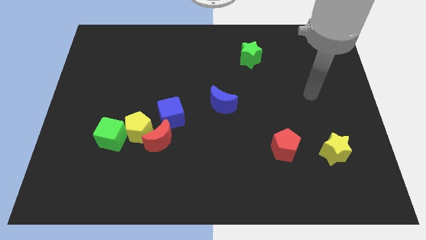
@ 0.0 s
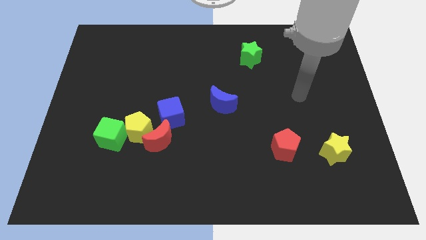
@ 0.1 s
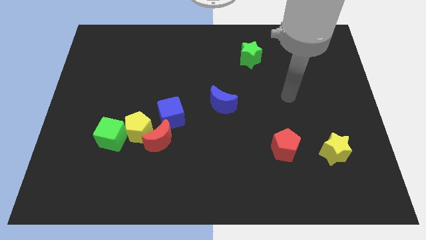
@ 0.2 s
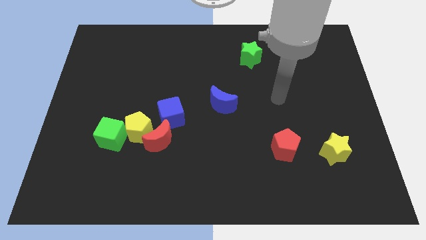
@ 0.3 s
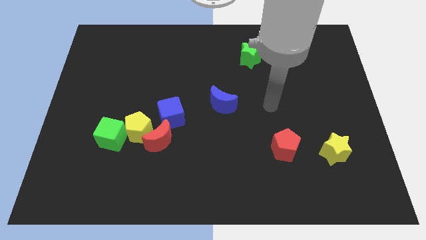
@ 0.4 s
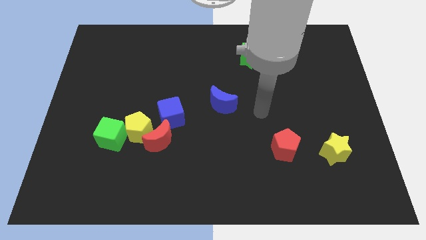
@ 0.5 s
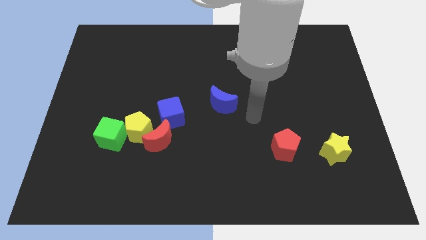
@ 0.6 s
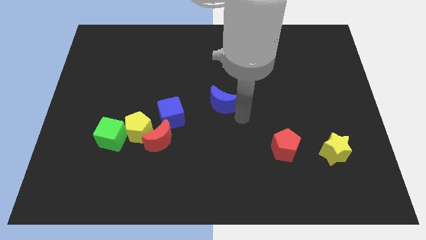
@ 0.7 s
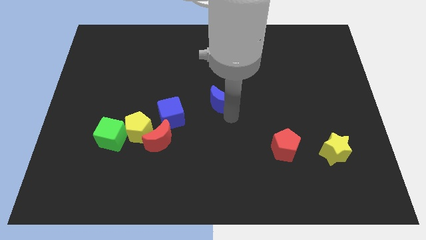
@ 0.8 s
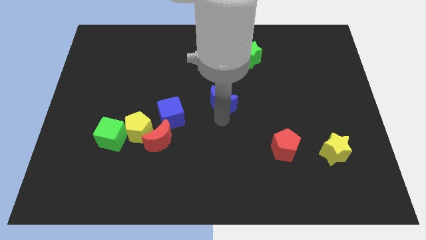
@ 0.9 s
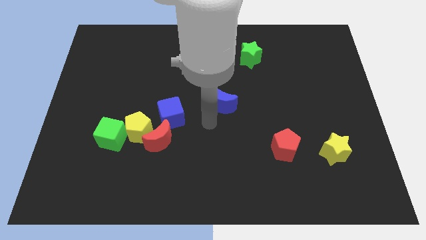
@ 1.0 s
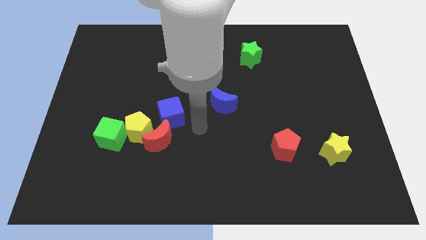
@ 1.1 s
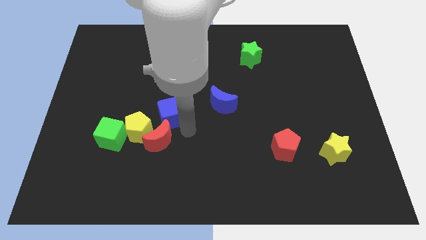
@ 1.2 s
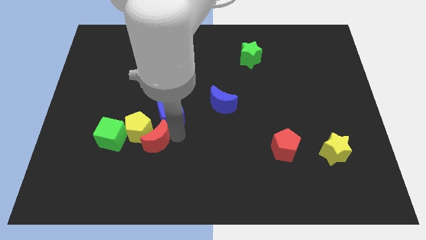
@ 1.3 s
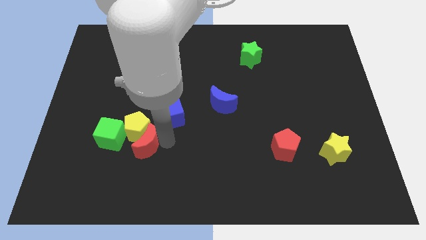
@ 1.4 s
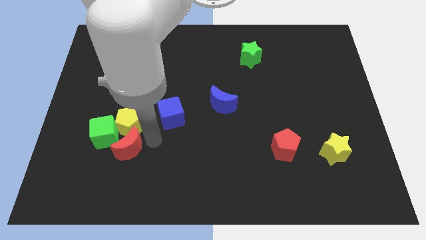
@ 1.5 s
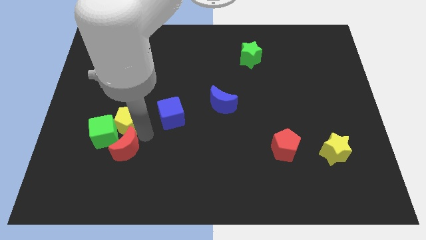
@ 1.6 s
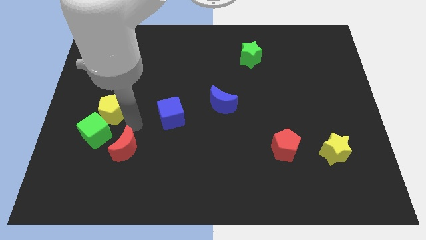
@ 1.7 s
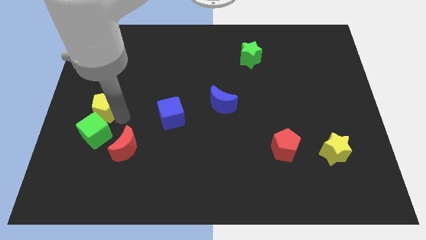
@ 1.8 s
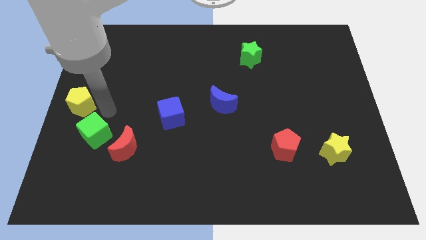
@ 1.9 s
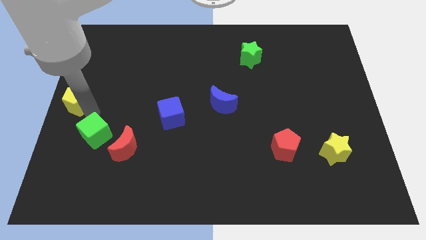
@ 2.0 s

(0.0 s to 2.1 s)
move the green cube away from the yellow pentagon

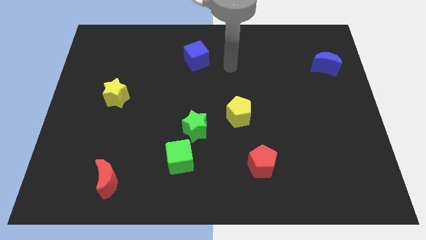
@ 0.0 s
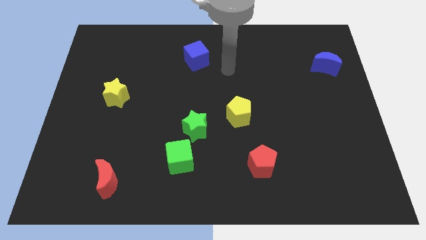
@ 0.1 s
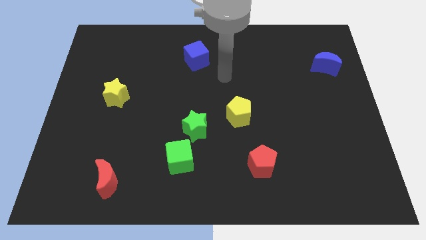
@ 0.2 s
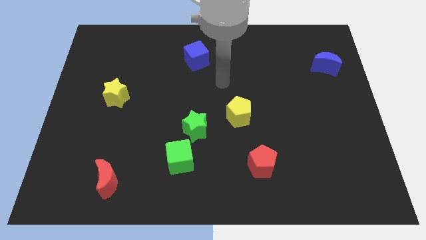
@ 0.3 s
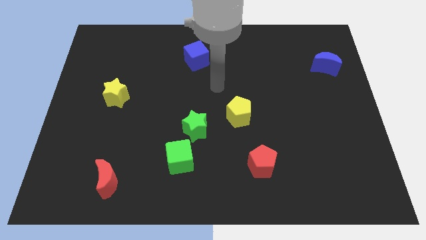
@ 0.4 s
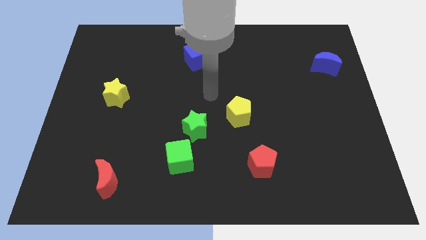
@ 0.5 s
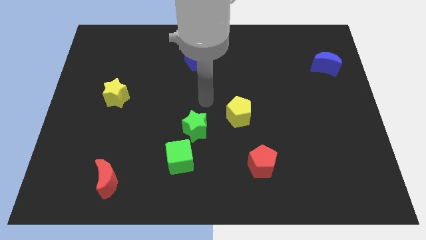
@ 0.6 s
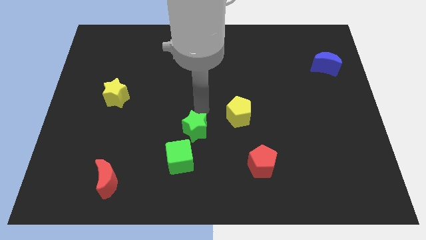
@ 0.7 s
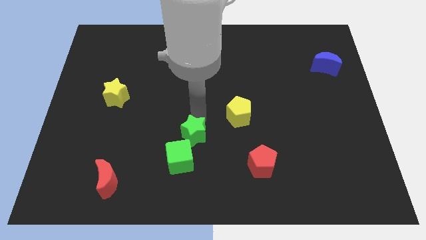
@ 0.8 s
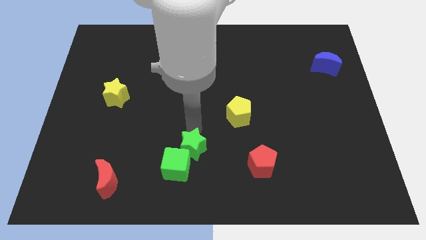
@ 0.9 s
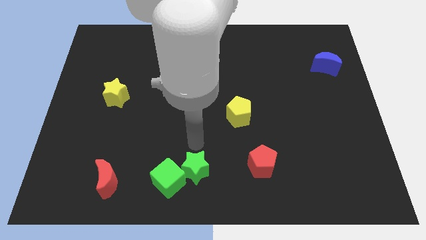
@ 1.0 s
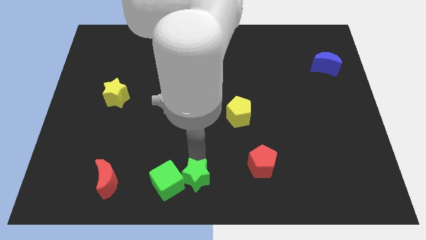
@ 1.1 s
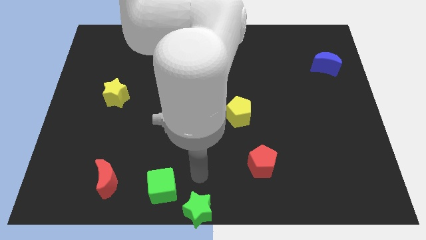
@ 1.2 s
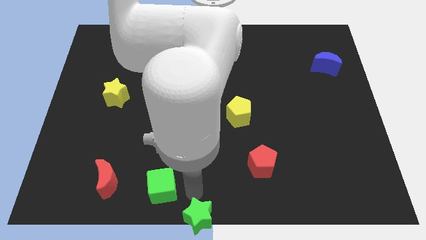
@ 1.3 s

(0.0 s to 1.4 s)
separate the green cube from the green star

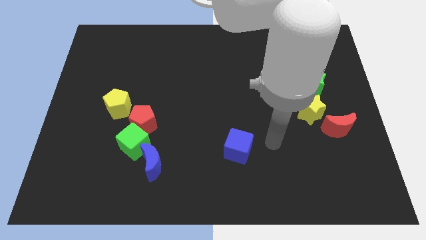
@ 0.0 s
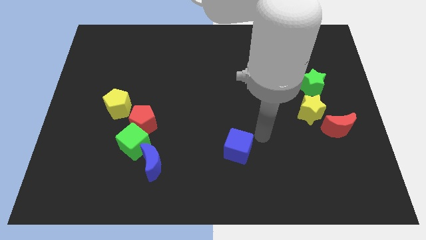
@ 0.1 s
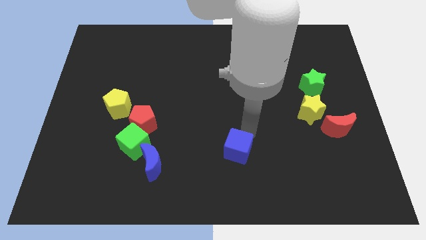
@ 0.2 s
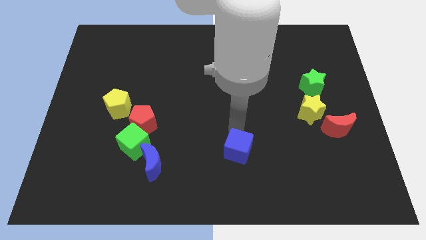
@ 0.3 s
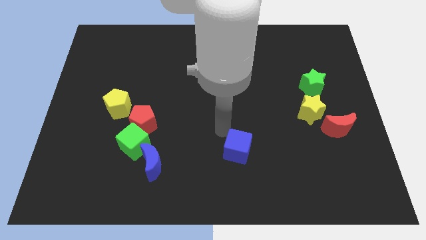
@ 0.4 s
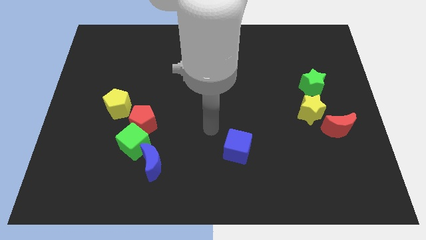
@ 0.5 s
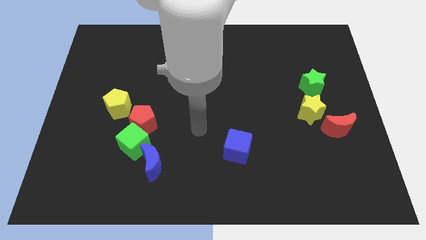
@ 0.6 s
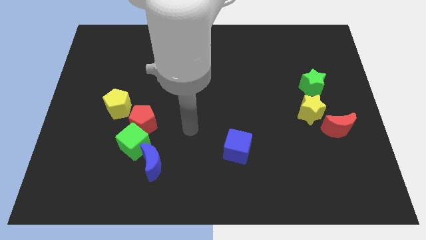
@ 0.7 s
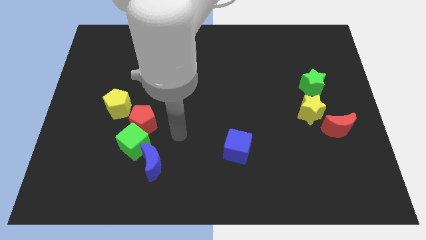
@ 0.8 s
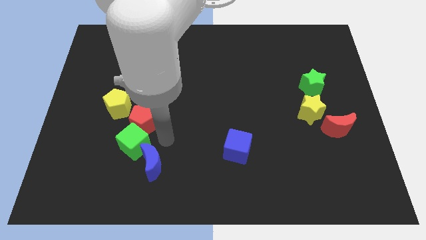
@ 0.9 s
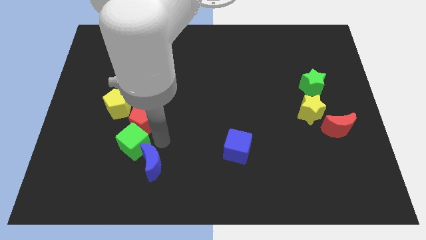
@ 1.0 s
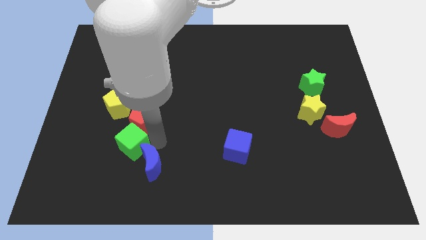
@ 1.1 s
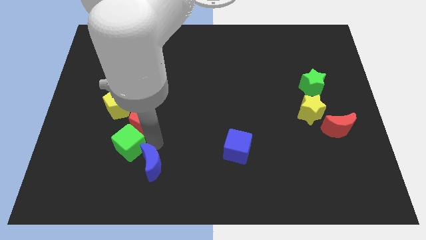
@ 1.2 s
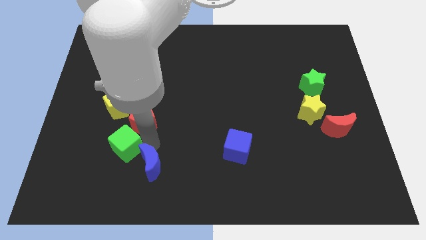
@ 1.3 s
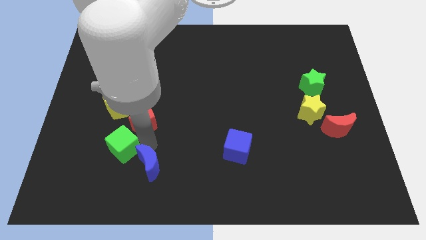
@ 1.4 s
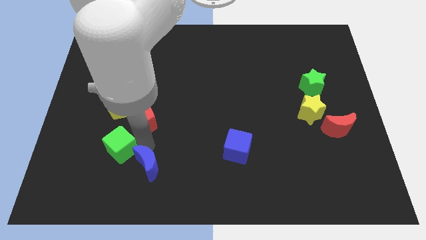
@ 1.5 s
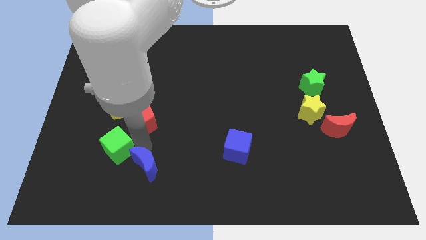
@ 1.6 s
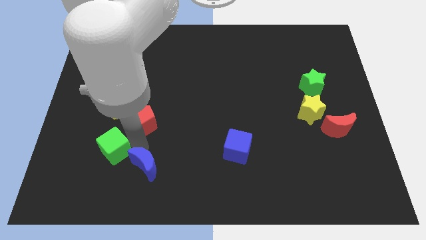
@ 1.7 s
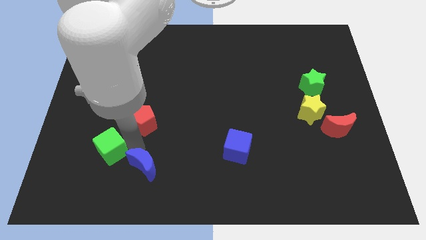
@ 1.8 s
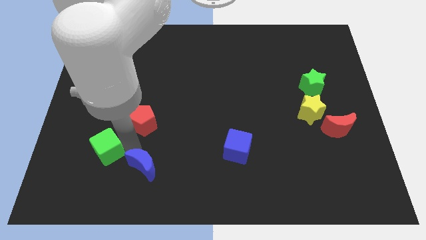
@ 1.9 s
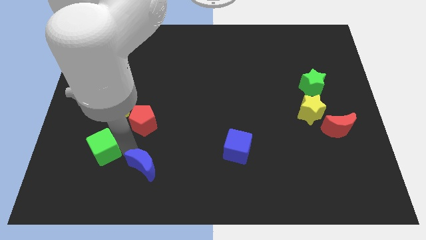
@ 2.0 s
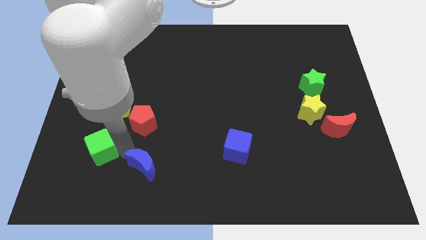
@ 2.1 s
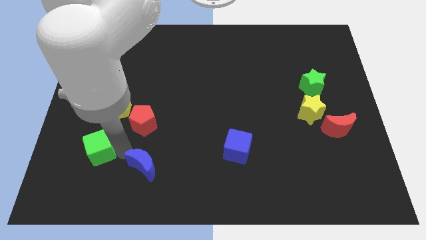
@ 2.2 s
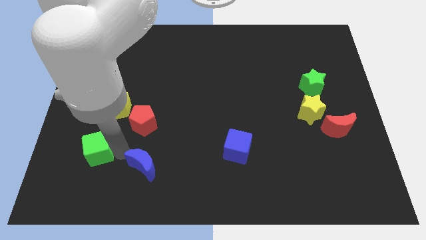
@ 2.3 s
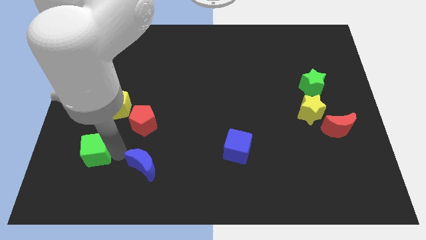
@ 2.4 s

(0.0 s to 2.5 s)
pull the green cube apart from the red pentagon and blue moon

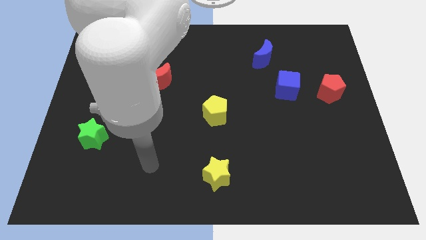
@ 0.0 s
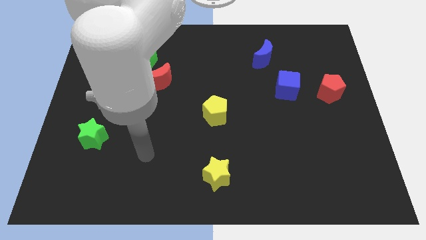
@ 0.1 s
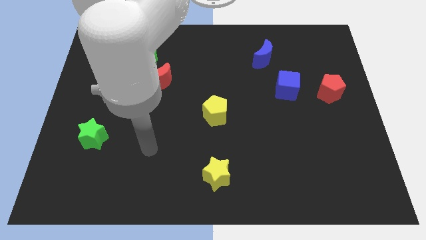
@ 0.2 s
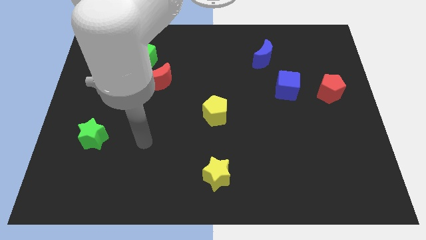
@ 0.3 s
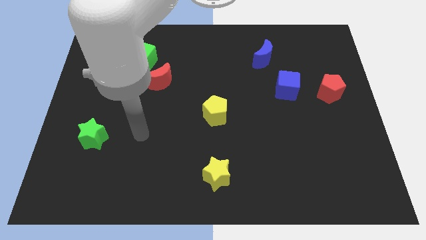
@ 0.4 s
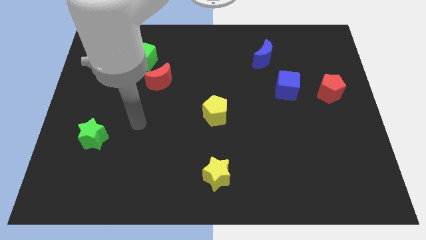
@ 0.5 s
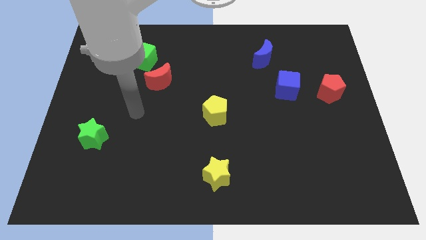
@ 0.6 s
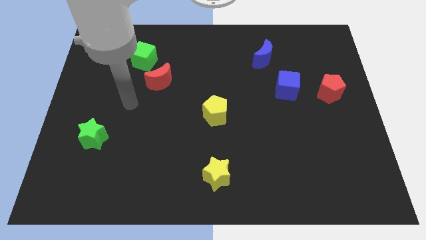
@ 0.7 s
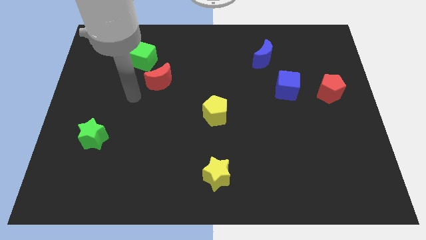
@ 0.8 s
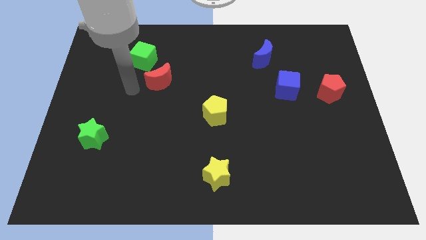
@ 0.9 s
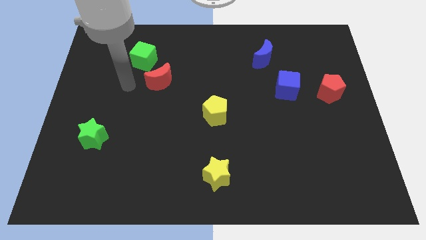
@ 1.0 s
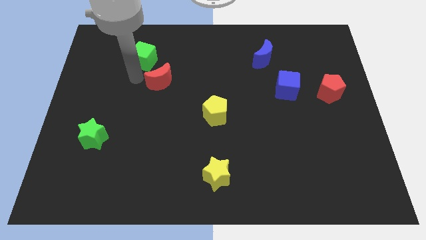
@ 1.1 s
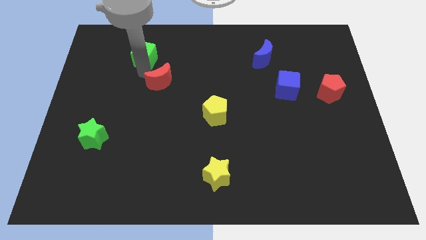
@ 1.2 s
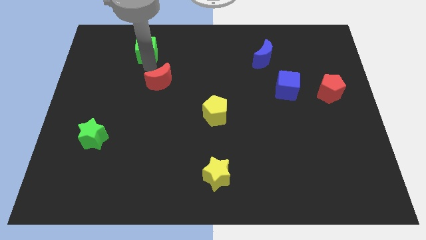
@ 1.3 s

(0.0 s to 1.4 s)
move the red moon away from the green cube

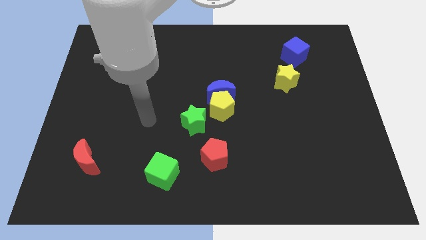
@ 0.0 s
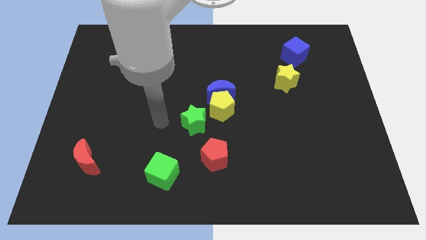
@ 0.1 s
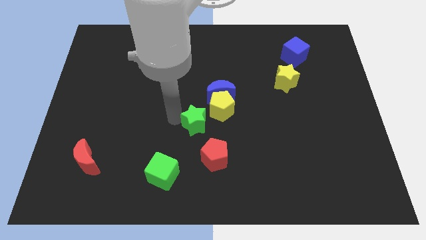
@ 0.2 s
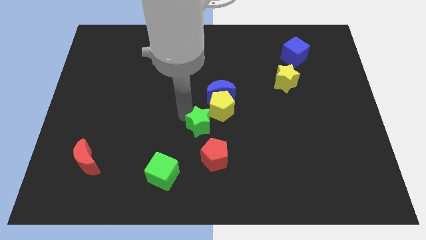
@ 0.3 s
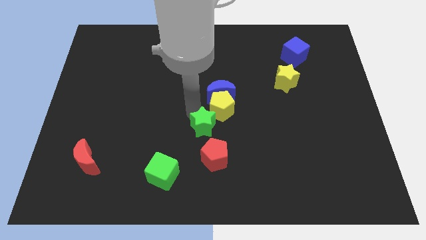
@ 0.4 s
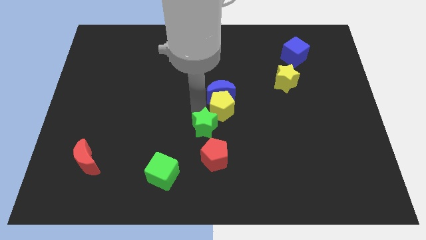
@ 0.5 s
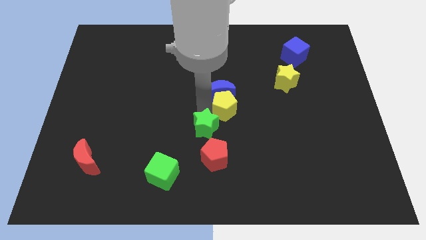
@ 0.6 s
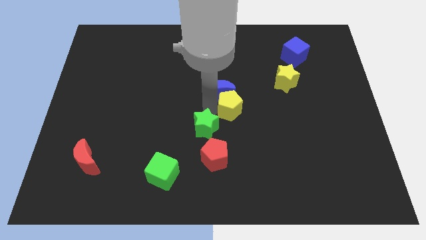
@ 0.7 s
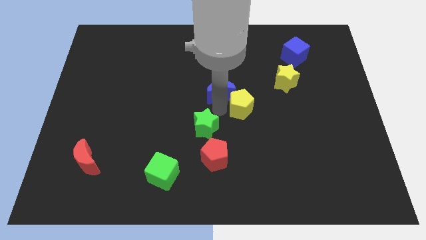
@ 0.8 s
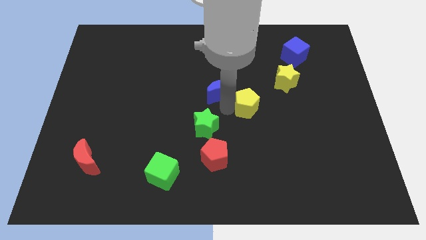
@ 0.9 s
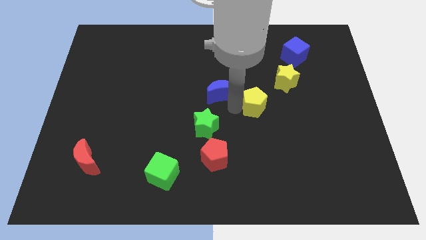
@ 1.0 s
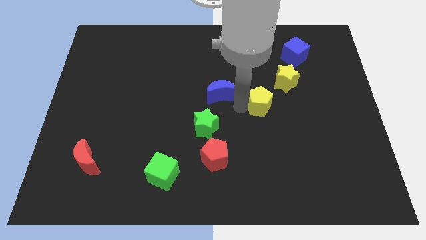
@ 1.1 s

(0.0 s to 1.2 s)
separate the yellow pentagon from the blue moon and green star

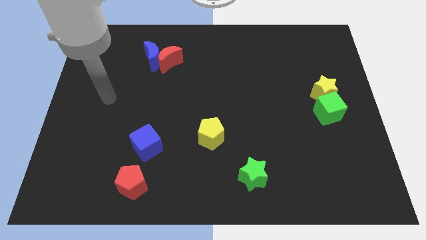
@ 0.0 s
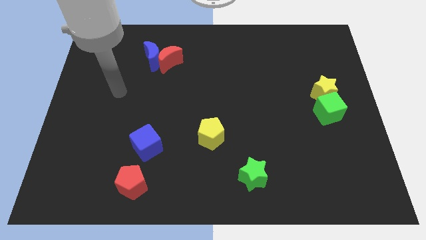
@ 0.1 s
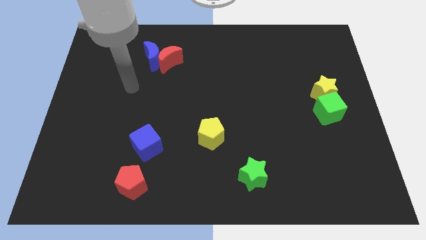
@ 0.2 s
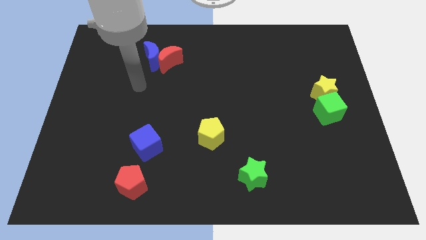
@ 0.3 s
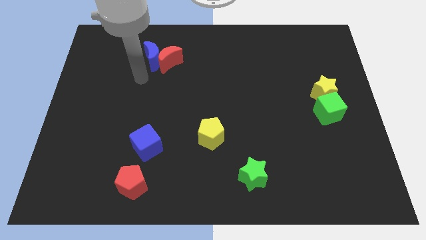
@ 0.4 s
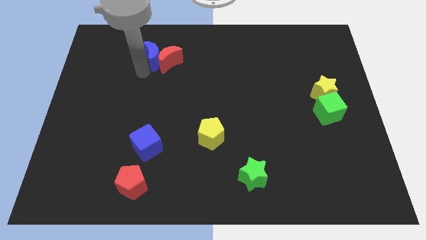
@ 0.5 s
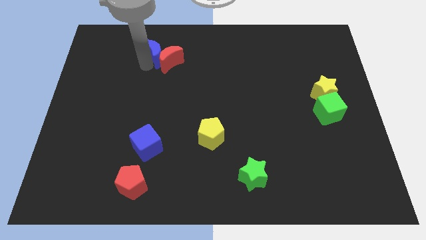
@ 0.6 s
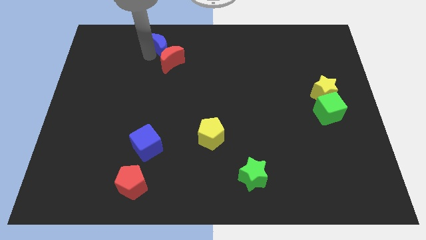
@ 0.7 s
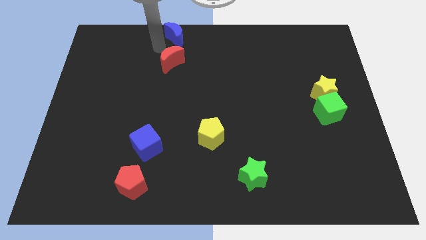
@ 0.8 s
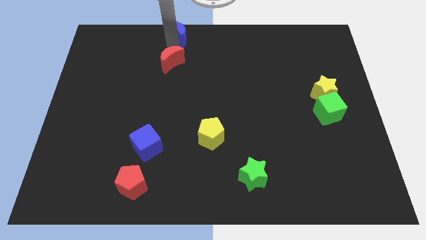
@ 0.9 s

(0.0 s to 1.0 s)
move the red moon away from the blue moon
